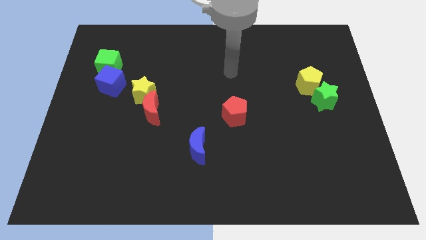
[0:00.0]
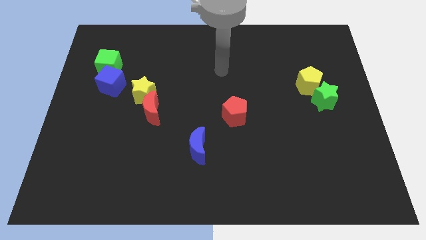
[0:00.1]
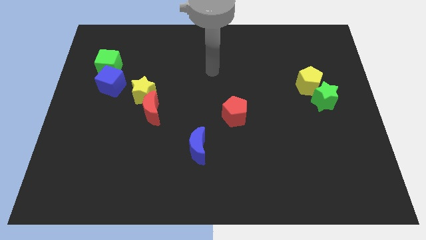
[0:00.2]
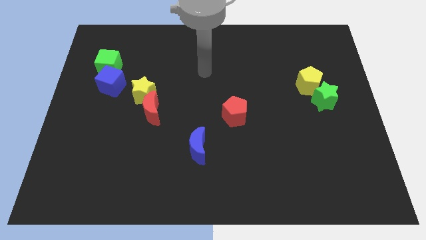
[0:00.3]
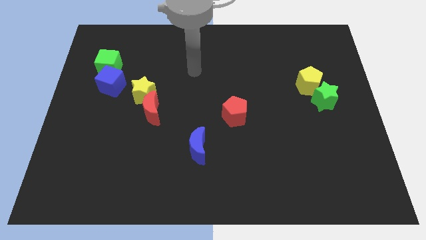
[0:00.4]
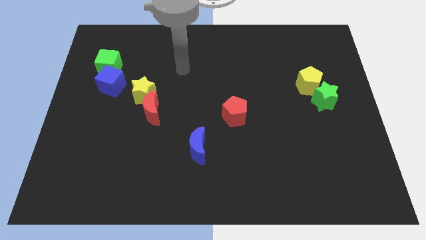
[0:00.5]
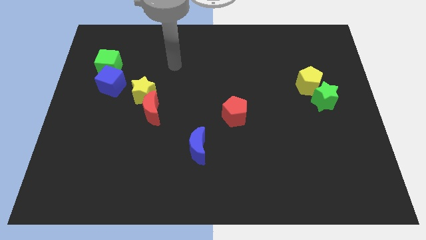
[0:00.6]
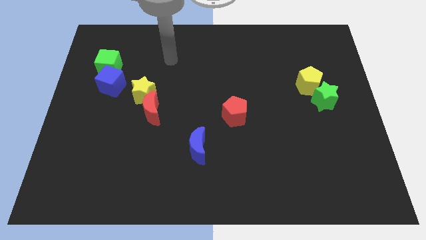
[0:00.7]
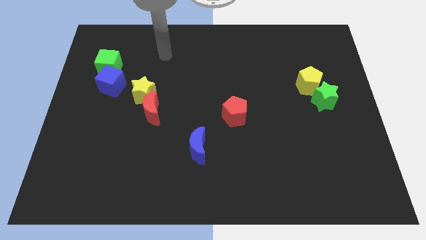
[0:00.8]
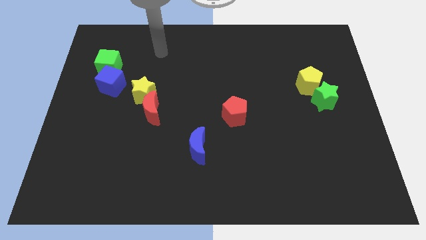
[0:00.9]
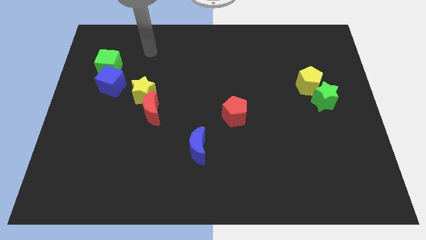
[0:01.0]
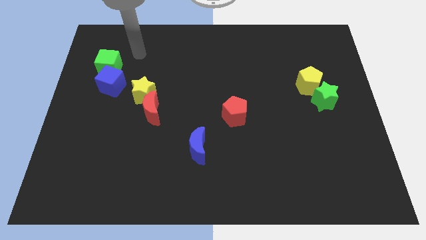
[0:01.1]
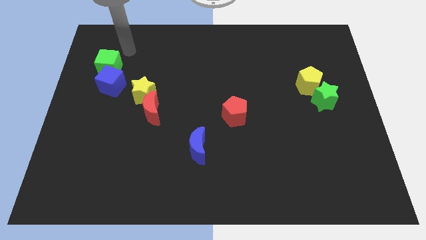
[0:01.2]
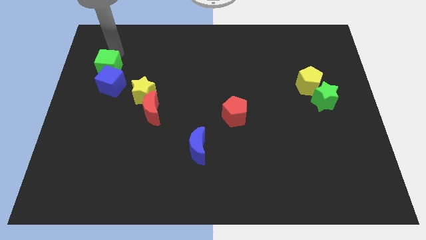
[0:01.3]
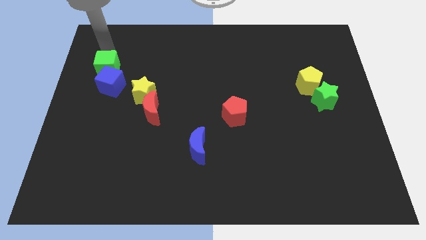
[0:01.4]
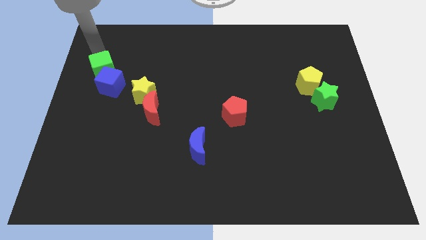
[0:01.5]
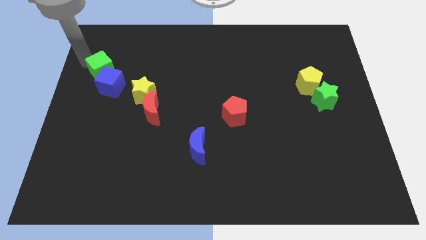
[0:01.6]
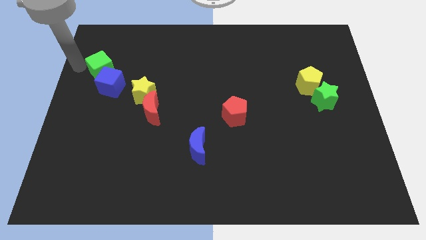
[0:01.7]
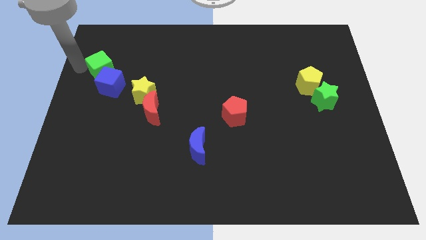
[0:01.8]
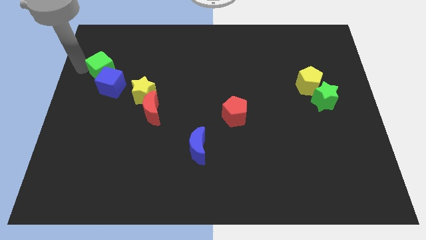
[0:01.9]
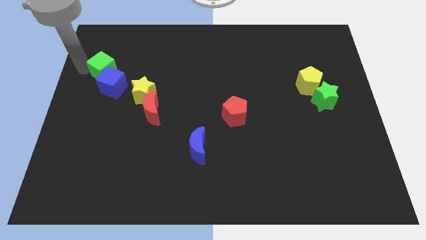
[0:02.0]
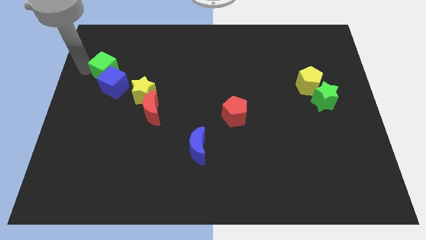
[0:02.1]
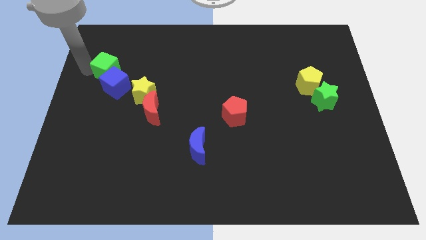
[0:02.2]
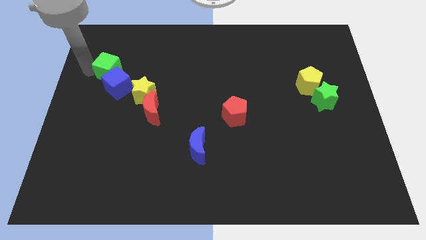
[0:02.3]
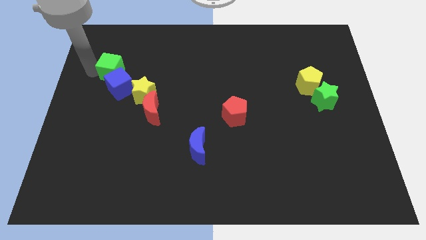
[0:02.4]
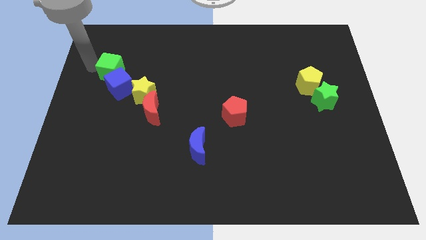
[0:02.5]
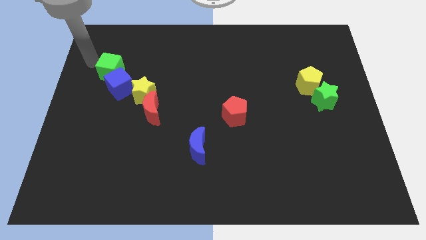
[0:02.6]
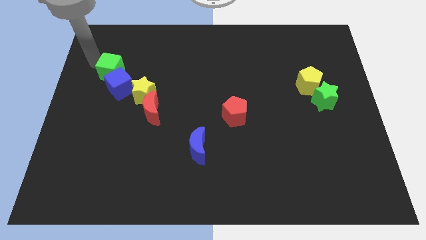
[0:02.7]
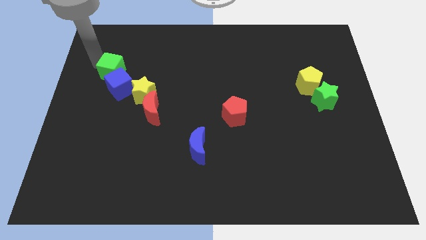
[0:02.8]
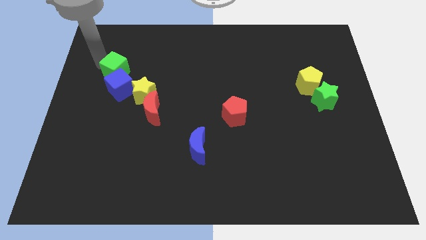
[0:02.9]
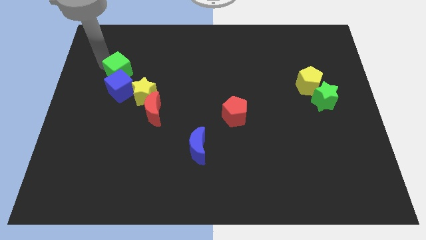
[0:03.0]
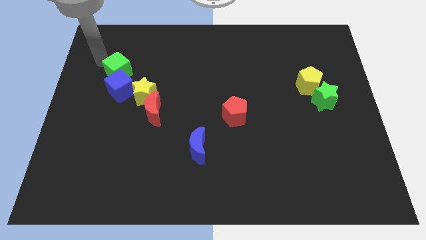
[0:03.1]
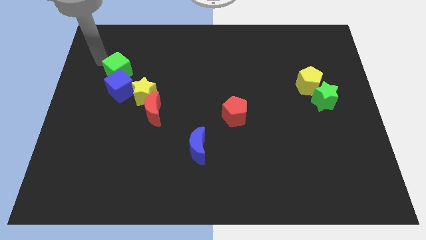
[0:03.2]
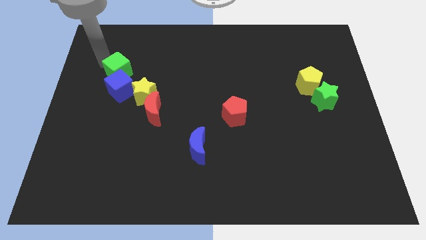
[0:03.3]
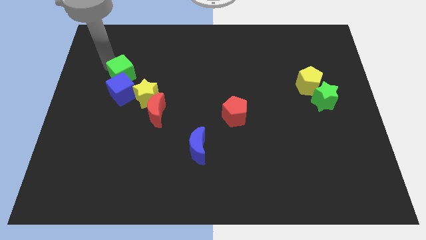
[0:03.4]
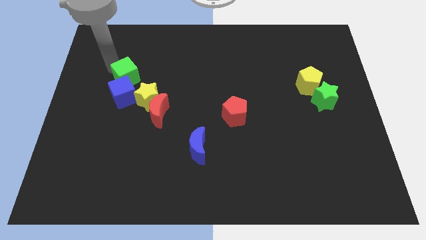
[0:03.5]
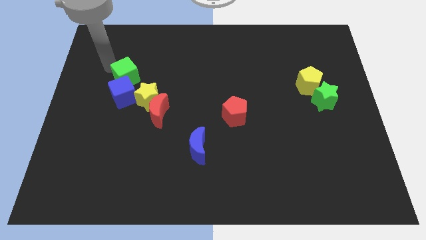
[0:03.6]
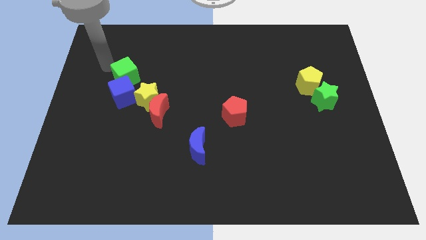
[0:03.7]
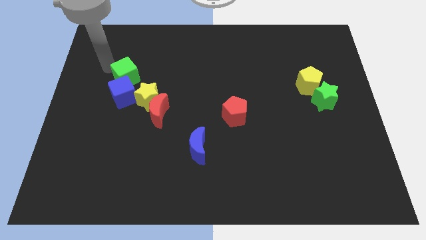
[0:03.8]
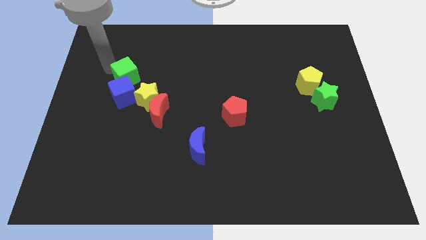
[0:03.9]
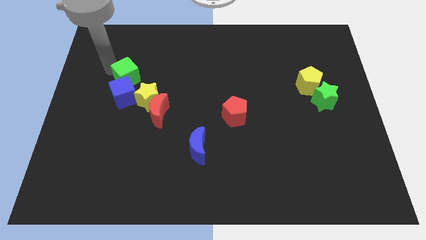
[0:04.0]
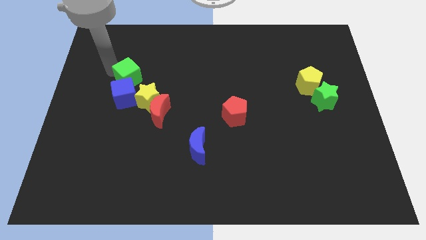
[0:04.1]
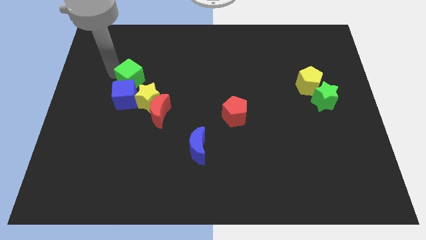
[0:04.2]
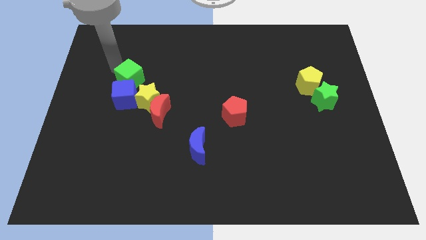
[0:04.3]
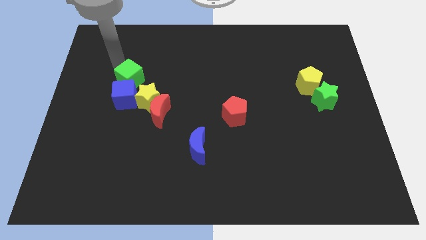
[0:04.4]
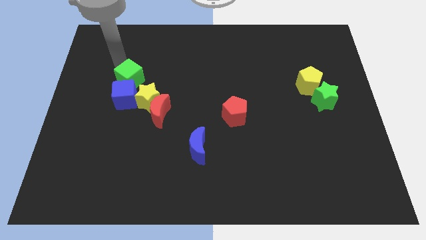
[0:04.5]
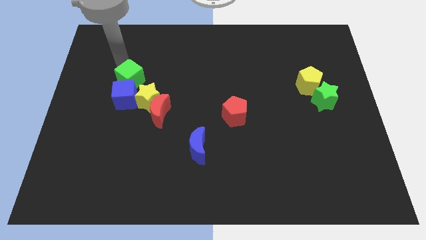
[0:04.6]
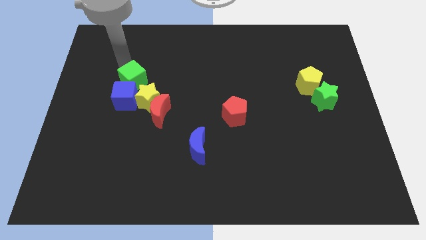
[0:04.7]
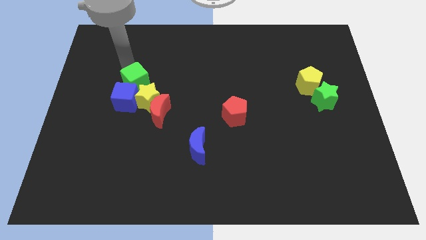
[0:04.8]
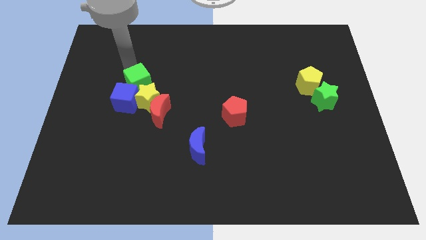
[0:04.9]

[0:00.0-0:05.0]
slide the green cube to the yellow star

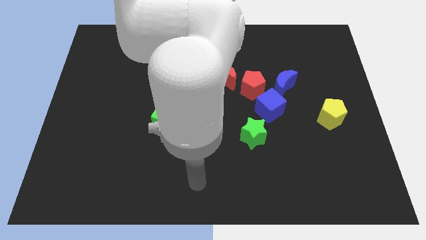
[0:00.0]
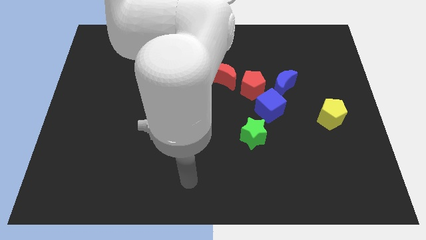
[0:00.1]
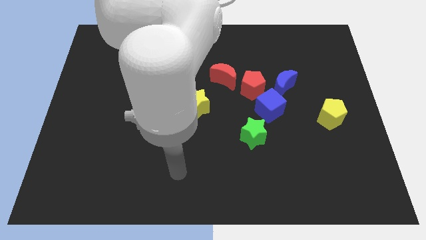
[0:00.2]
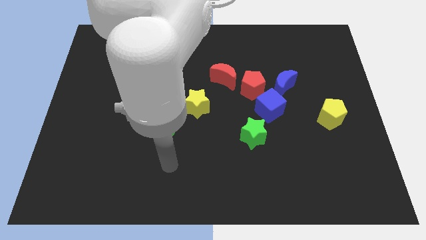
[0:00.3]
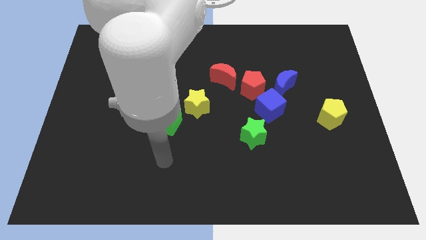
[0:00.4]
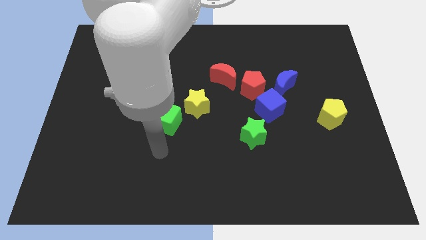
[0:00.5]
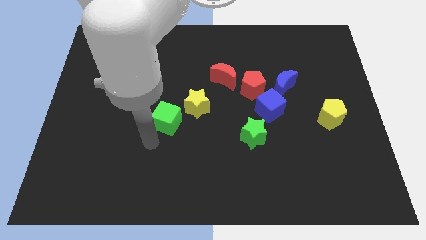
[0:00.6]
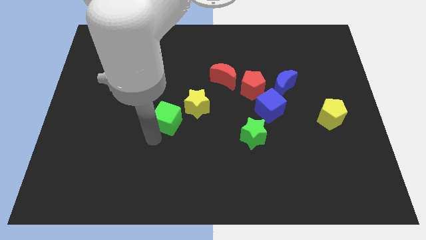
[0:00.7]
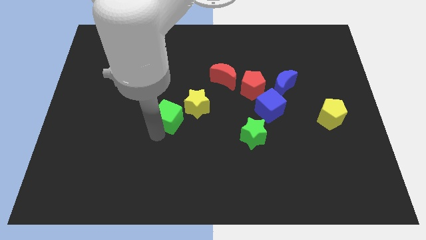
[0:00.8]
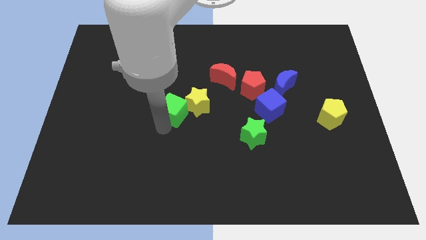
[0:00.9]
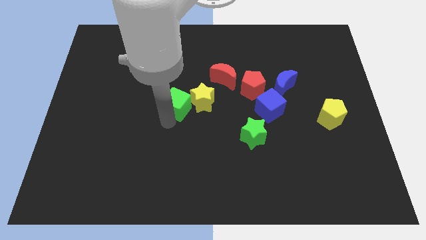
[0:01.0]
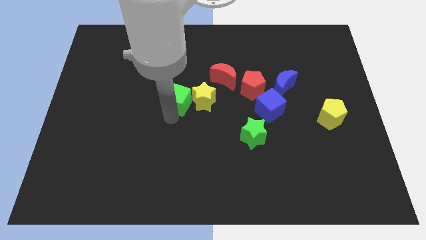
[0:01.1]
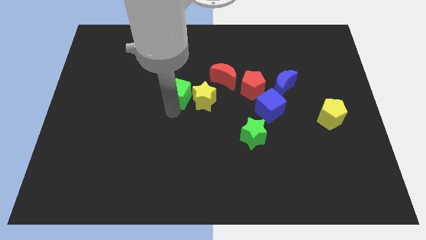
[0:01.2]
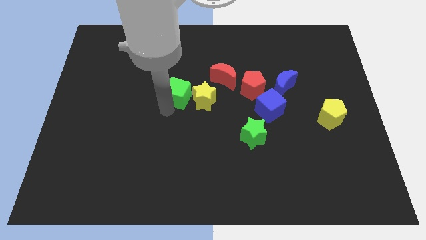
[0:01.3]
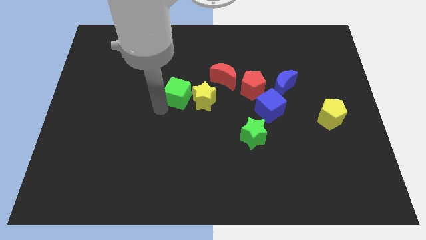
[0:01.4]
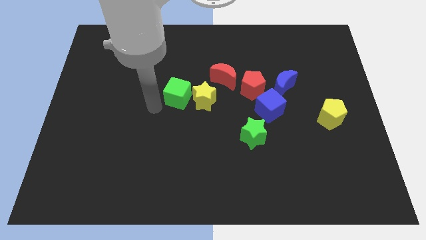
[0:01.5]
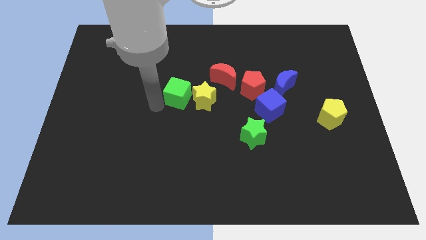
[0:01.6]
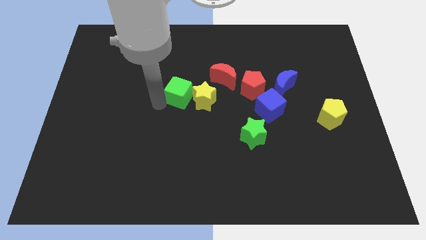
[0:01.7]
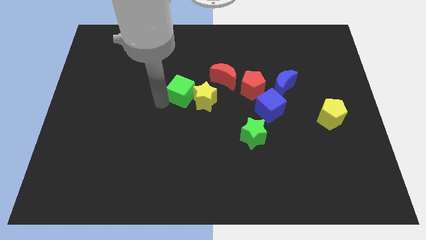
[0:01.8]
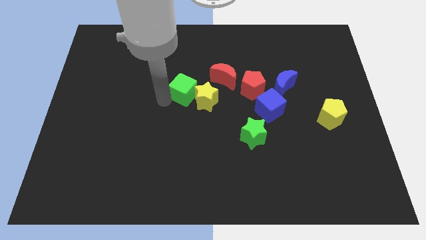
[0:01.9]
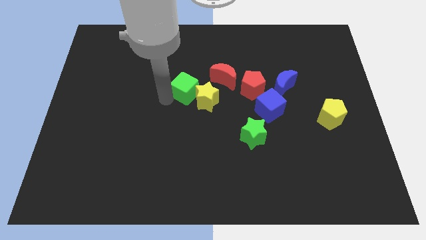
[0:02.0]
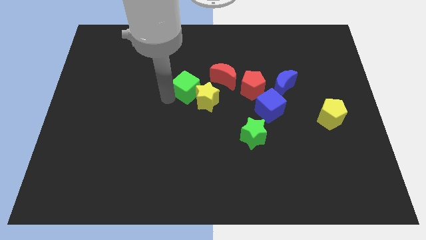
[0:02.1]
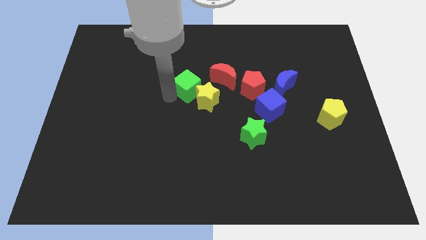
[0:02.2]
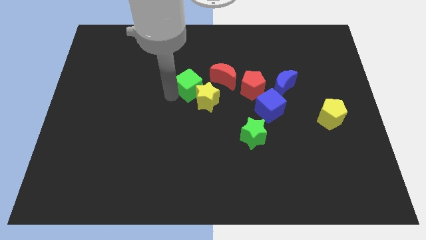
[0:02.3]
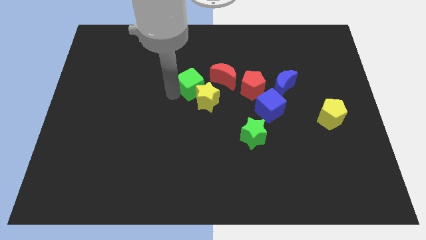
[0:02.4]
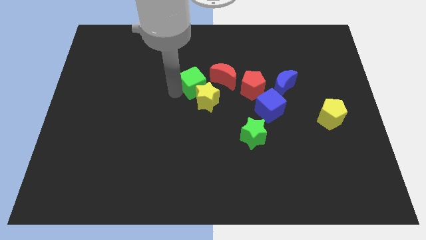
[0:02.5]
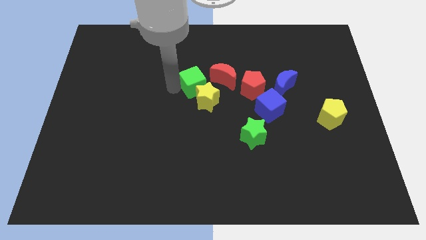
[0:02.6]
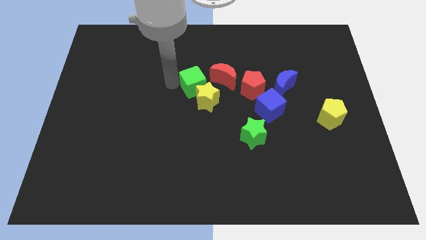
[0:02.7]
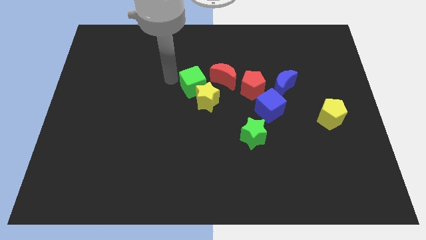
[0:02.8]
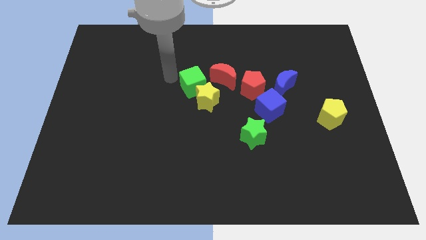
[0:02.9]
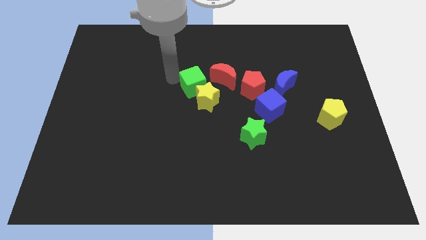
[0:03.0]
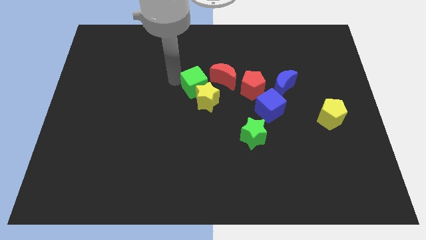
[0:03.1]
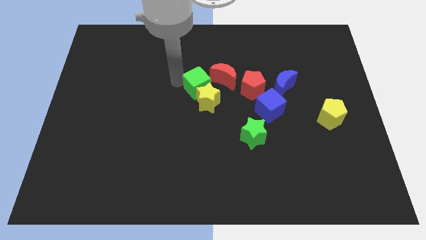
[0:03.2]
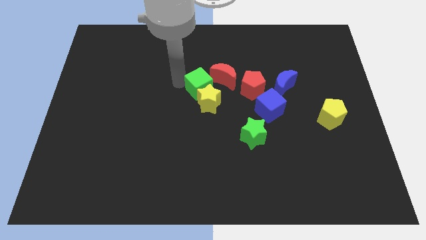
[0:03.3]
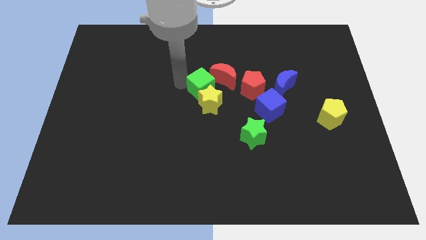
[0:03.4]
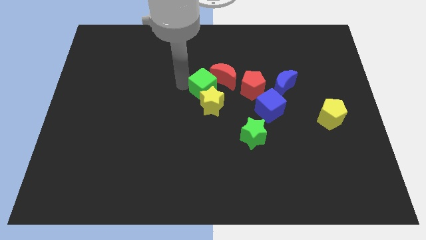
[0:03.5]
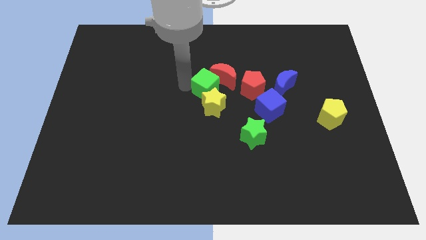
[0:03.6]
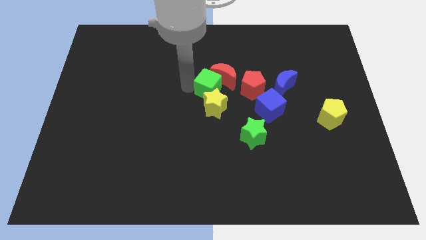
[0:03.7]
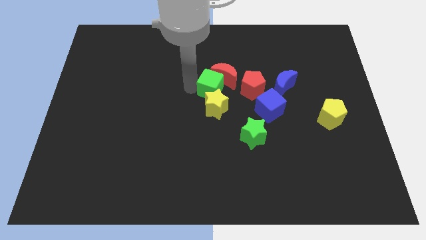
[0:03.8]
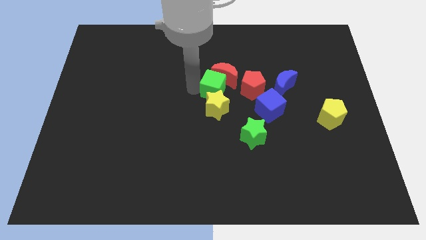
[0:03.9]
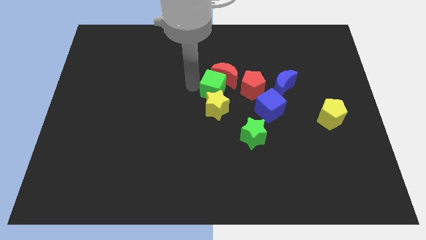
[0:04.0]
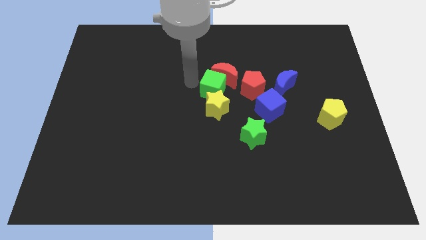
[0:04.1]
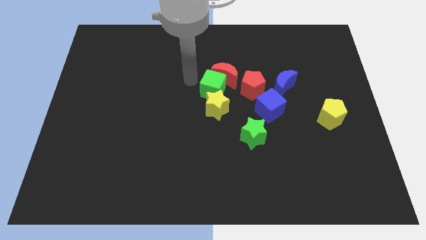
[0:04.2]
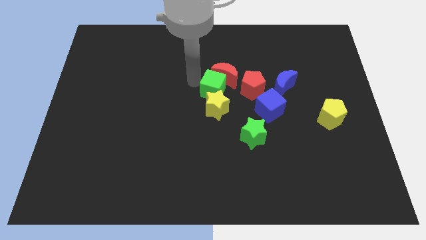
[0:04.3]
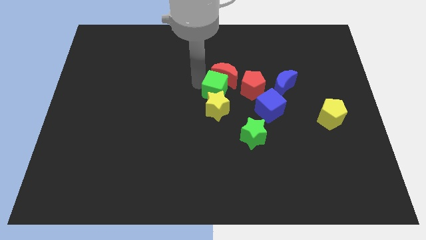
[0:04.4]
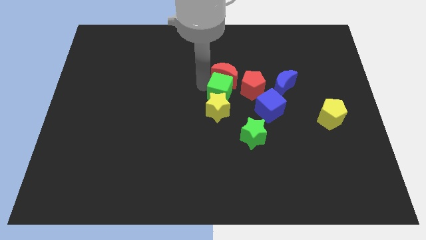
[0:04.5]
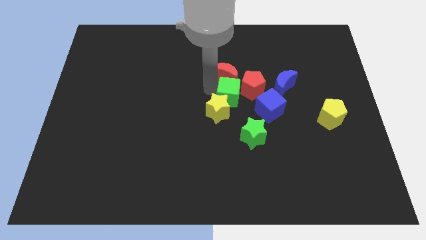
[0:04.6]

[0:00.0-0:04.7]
move the green cube next to the red pentagon
